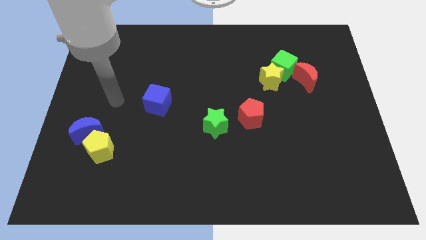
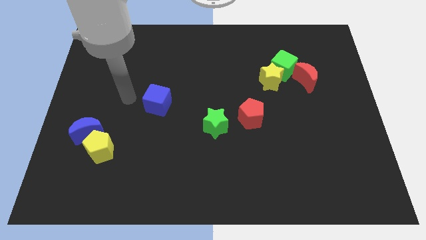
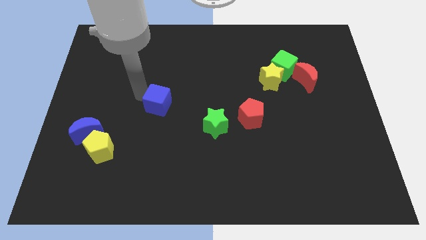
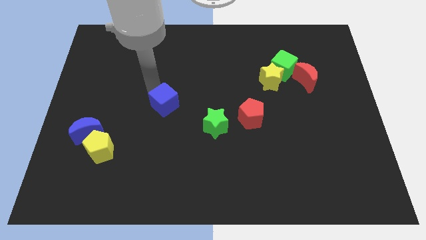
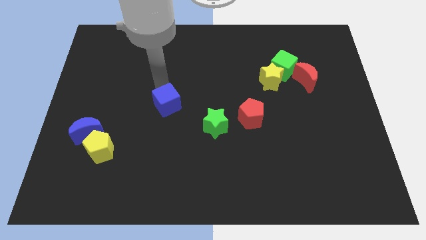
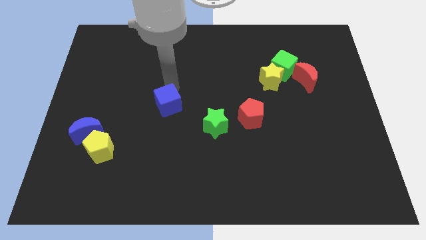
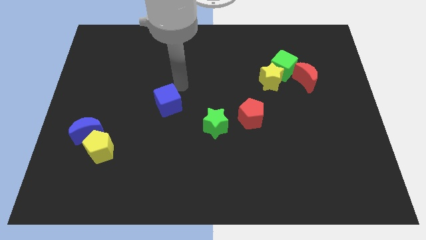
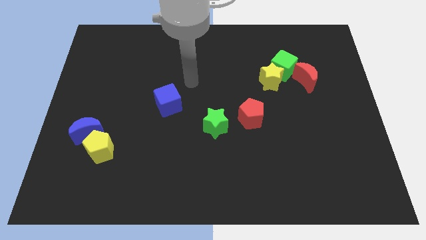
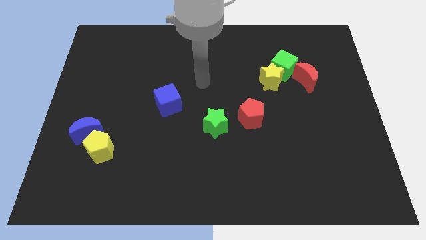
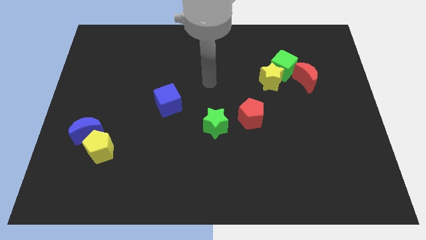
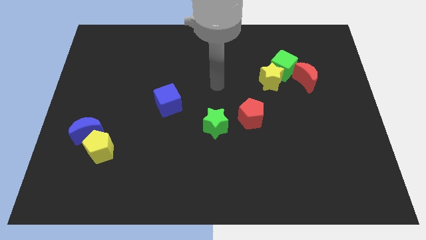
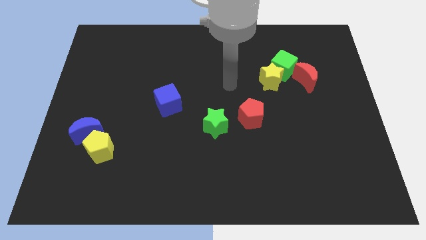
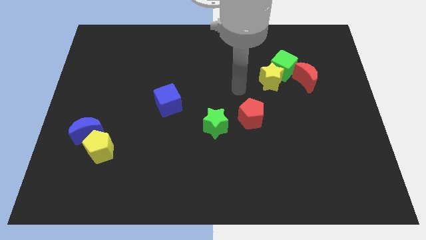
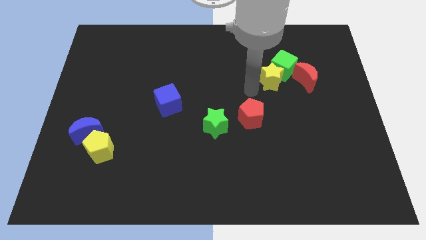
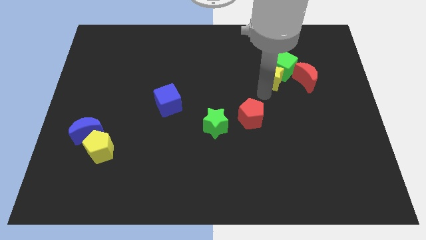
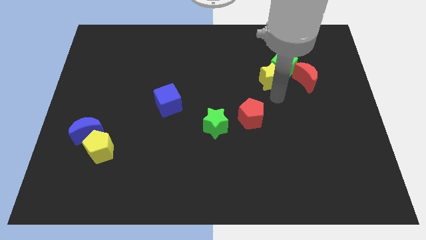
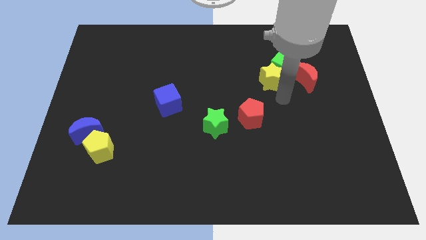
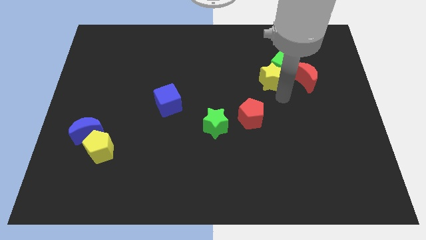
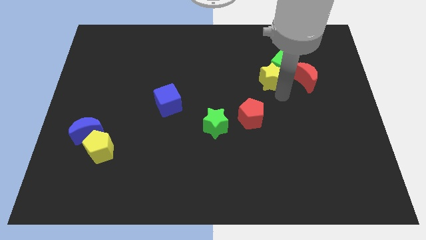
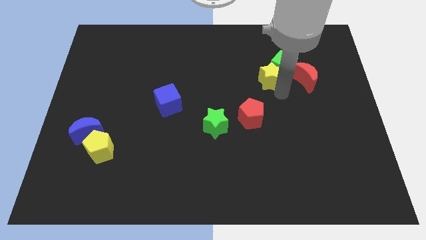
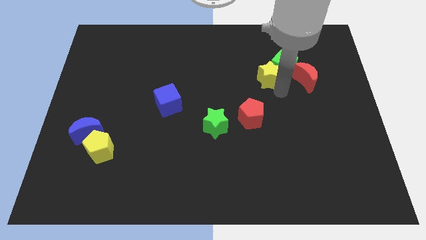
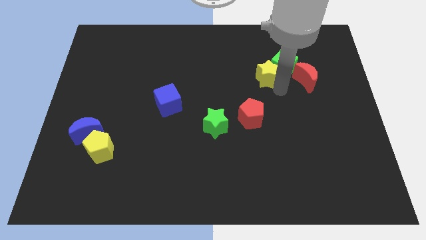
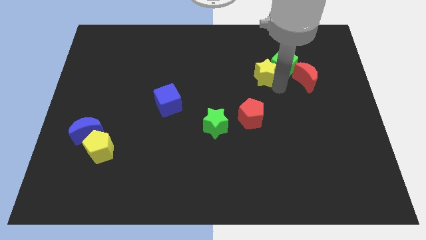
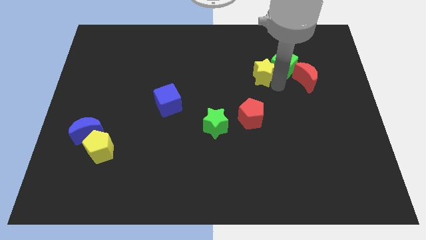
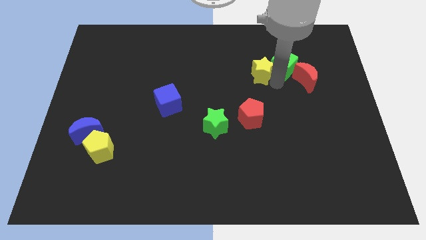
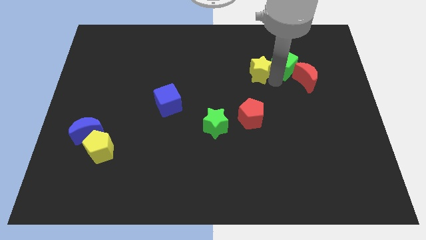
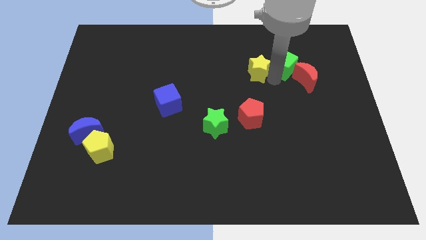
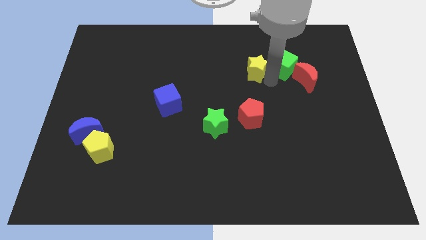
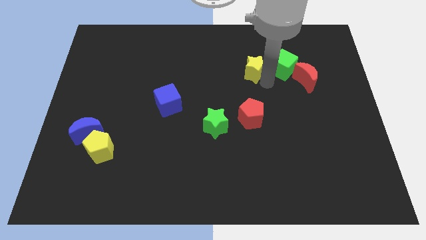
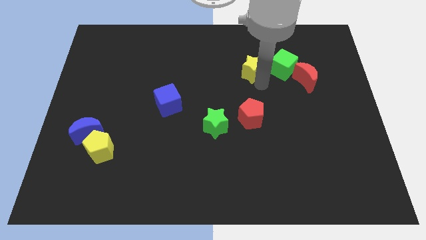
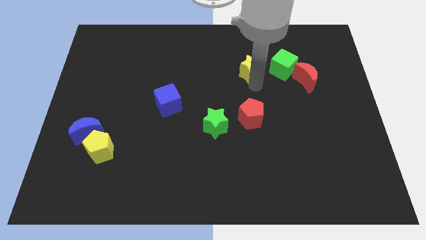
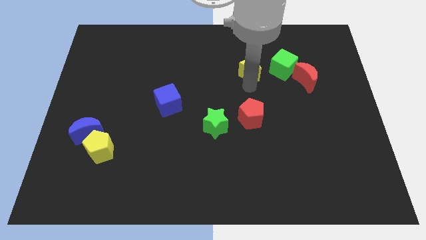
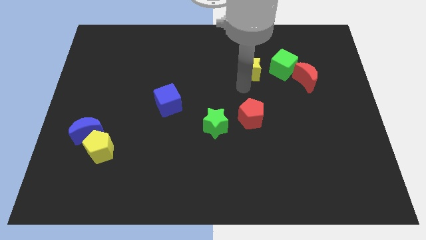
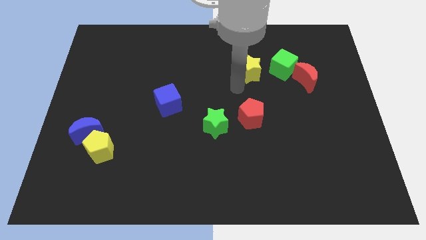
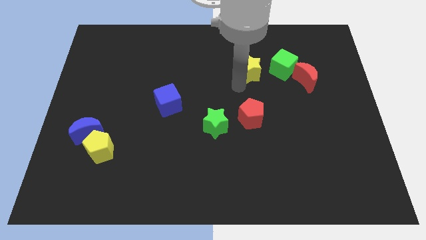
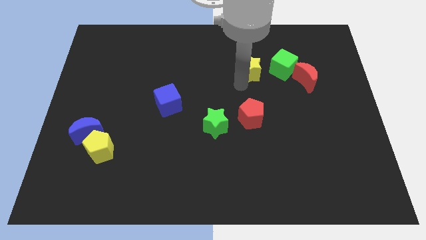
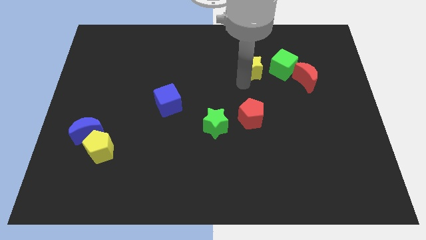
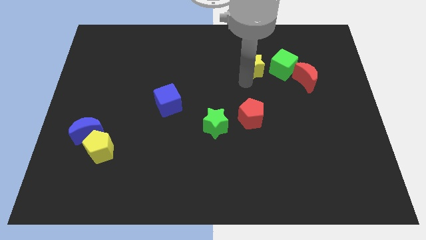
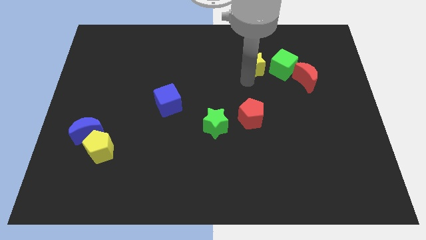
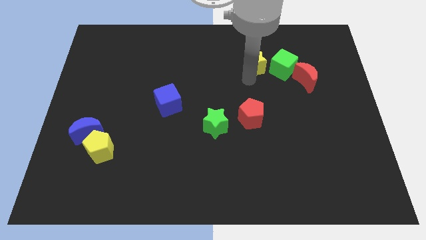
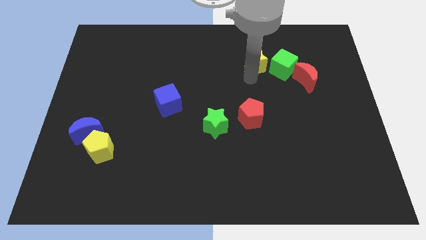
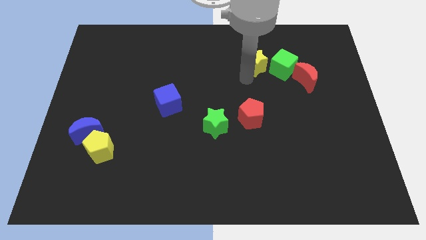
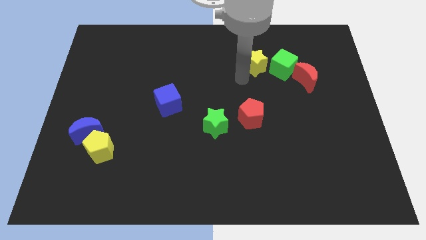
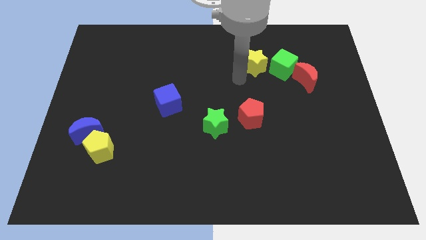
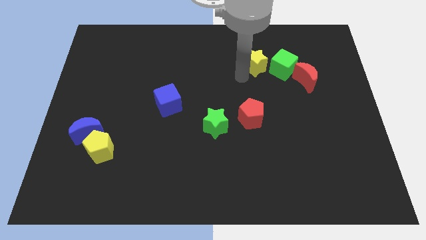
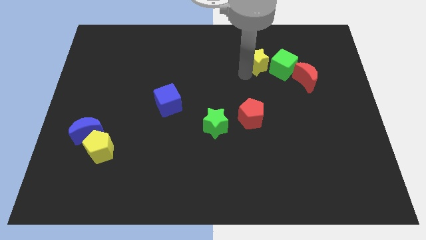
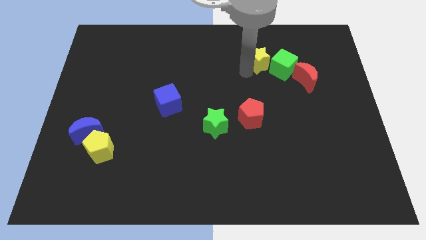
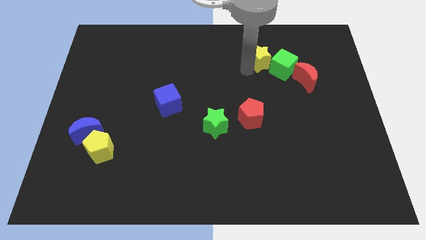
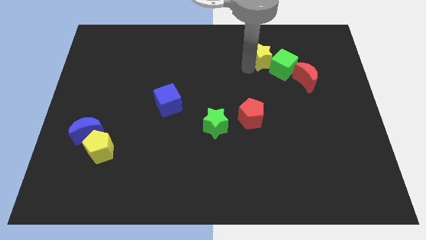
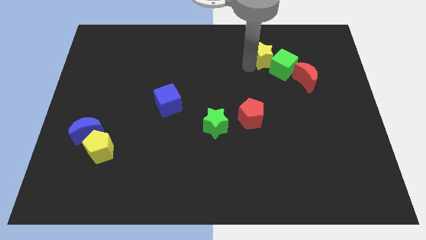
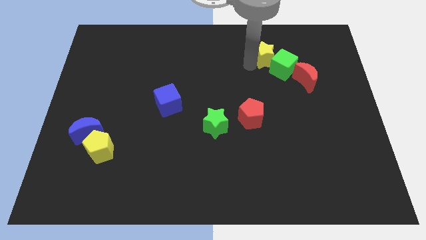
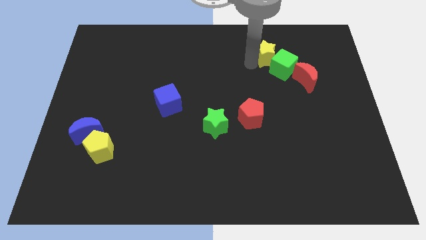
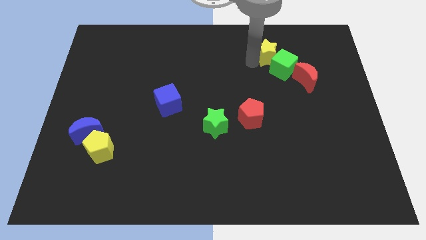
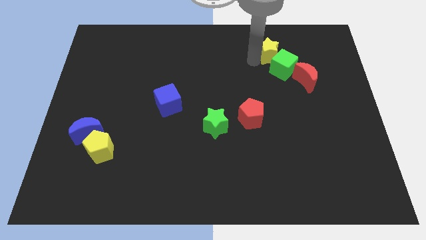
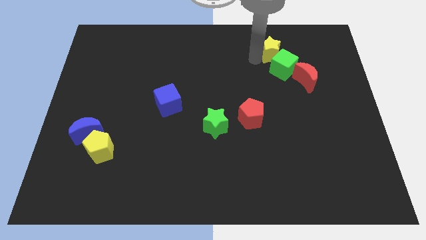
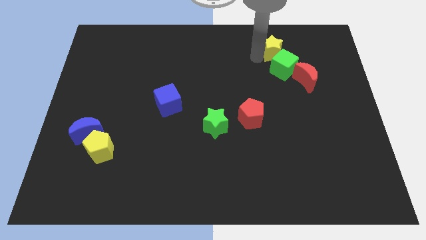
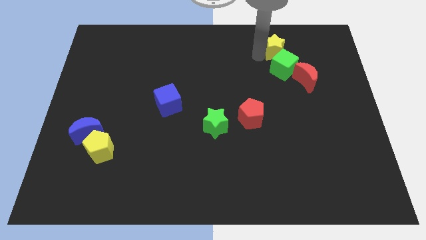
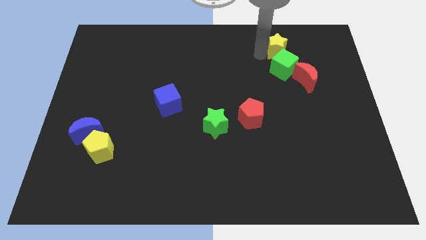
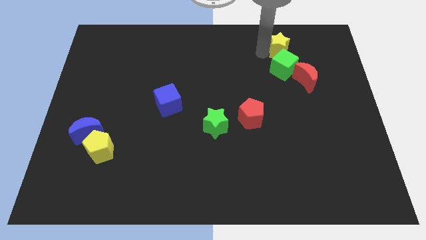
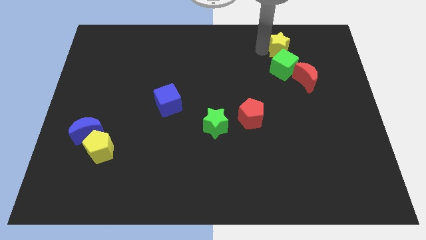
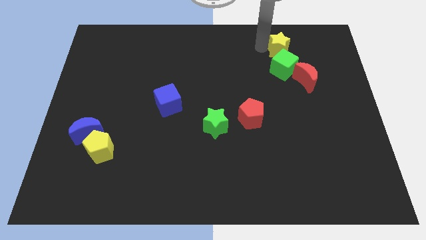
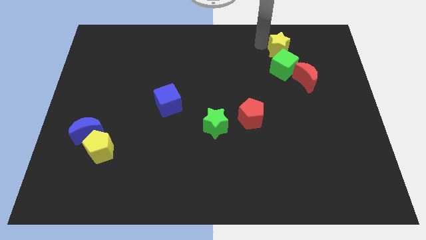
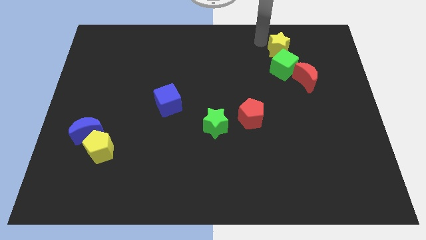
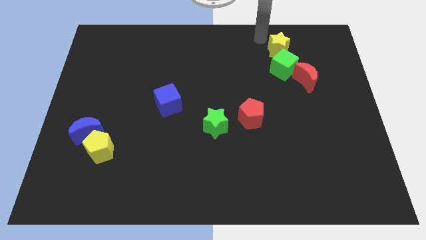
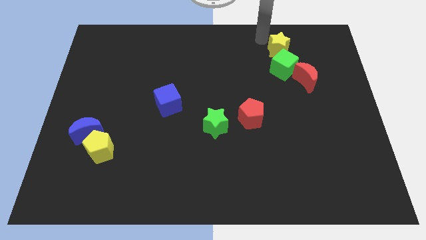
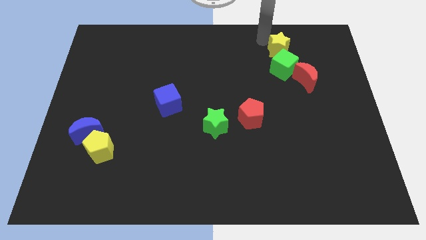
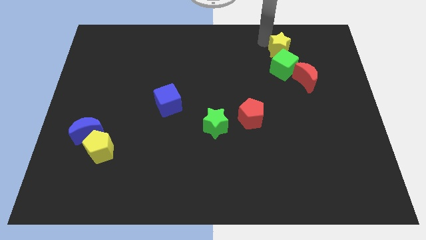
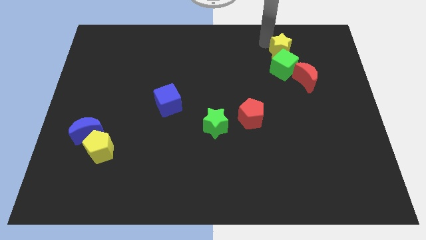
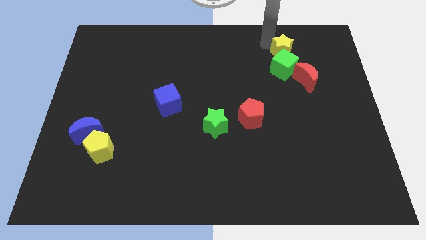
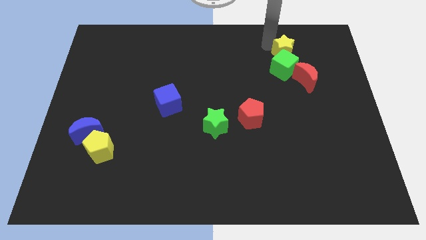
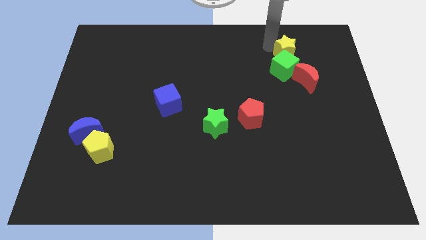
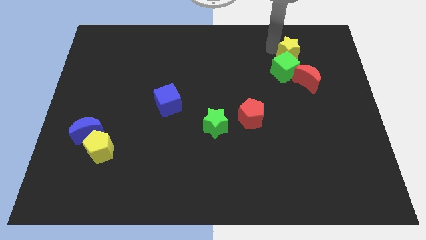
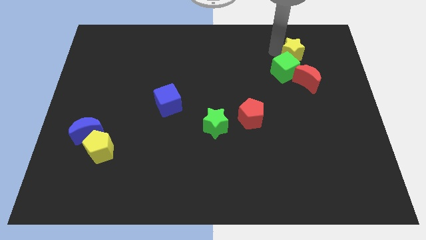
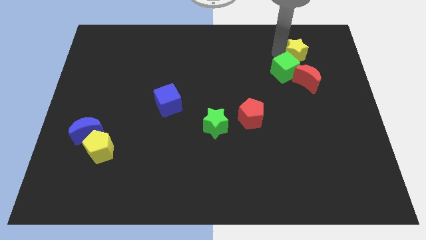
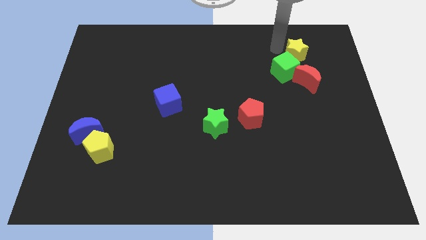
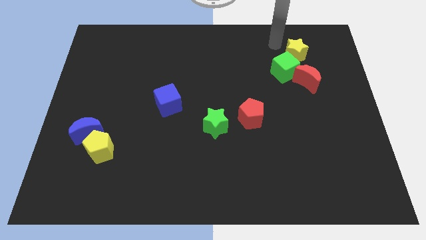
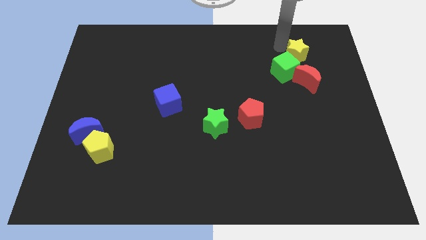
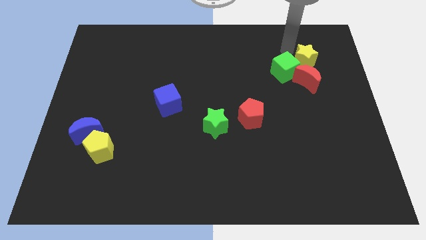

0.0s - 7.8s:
put the yellow star to the right of the green cube
